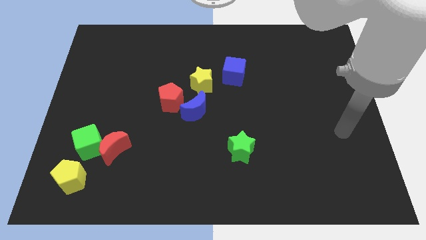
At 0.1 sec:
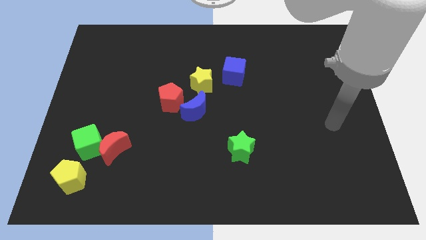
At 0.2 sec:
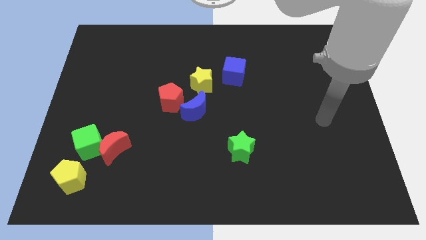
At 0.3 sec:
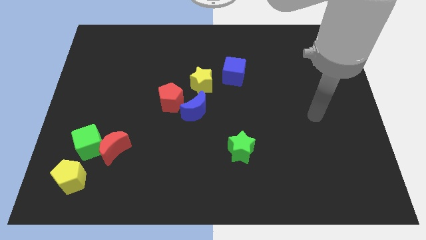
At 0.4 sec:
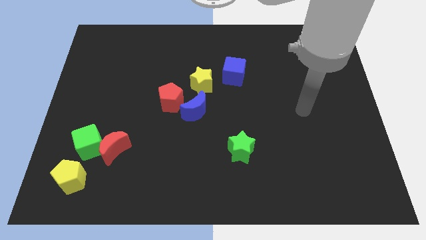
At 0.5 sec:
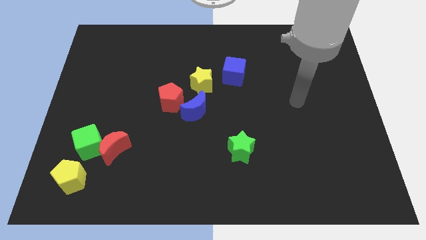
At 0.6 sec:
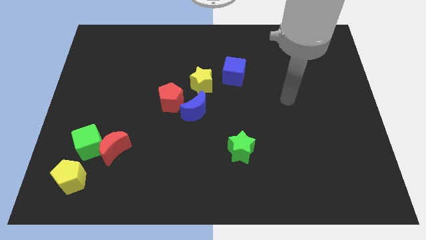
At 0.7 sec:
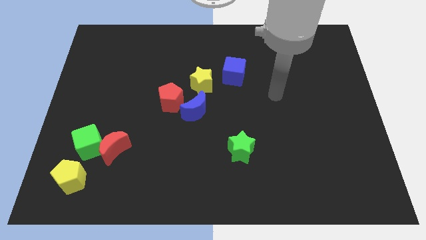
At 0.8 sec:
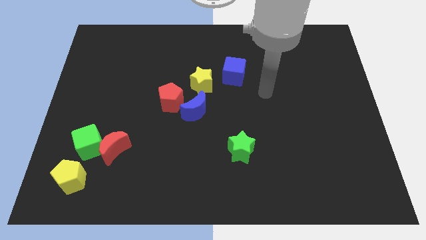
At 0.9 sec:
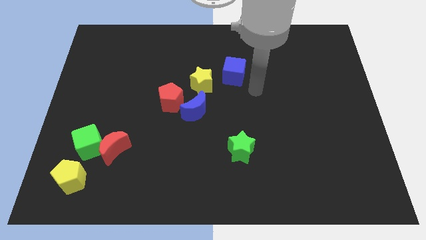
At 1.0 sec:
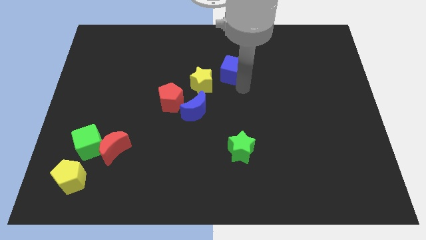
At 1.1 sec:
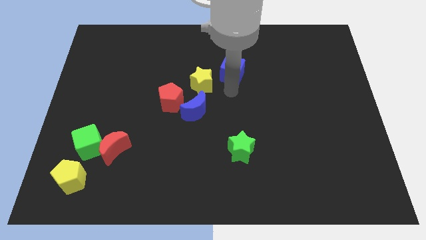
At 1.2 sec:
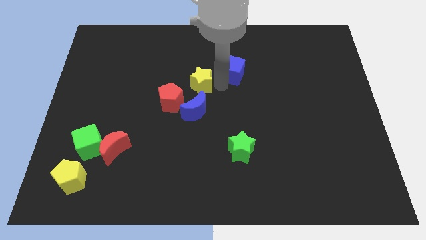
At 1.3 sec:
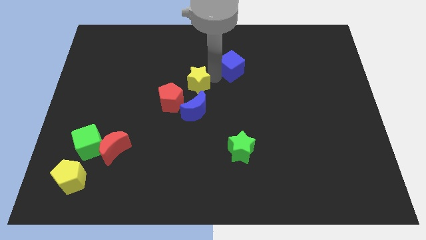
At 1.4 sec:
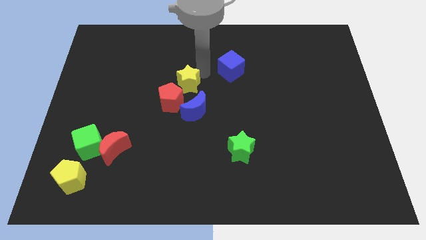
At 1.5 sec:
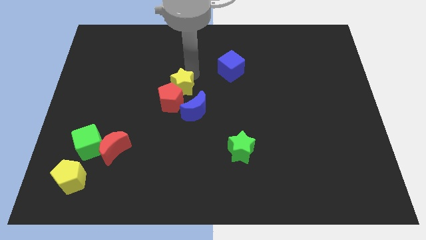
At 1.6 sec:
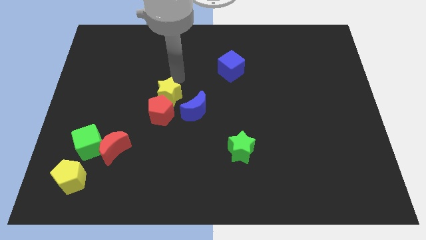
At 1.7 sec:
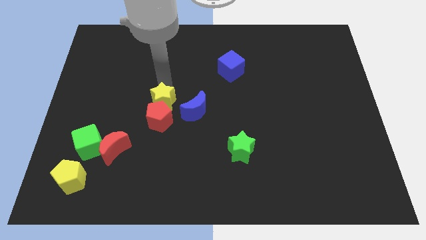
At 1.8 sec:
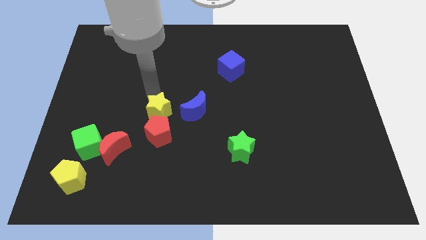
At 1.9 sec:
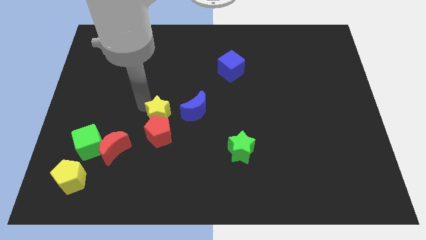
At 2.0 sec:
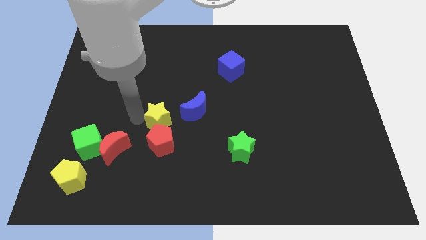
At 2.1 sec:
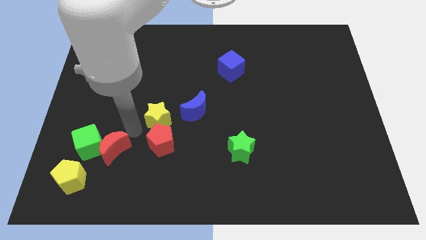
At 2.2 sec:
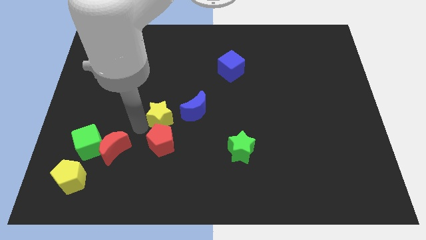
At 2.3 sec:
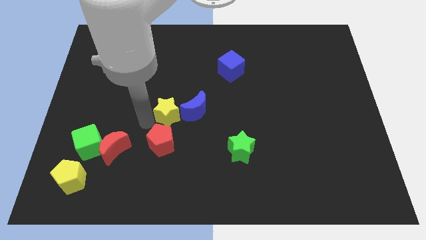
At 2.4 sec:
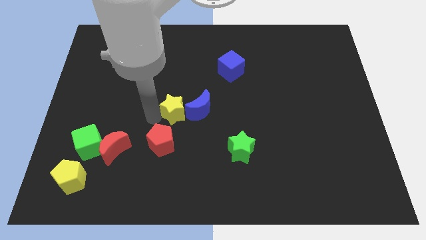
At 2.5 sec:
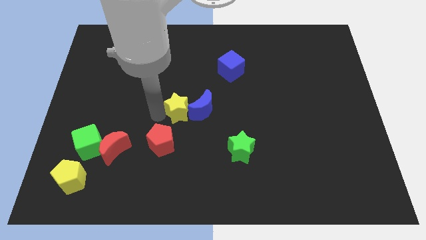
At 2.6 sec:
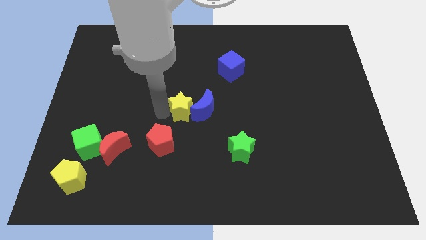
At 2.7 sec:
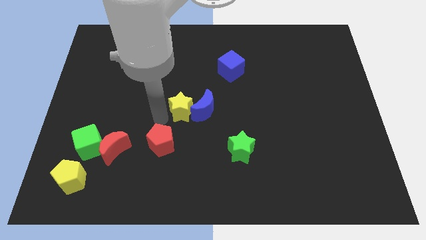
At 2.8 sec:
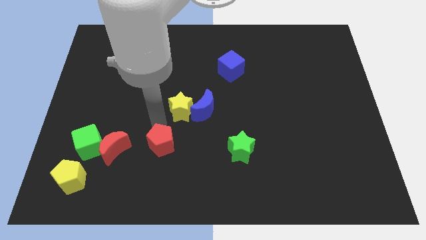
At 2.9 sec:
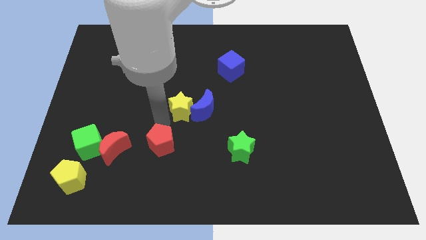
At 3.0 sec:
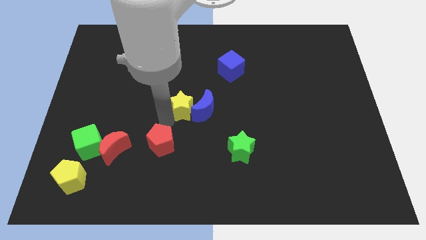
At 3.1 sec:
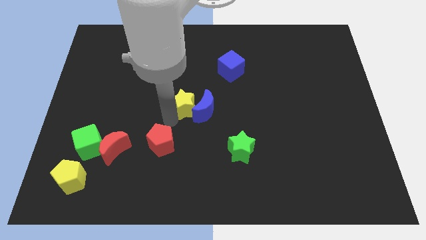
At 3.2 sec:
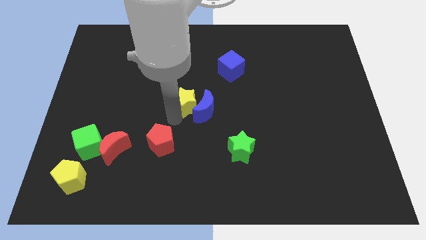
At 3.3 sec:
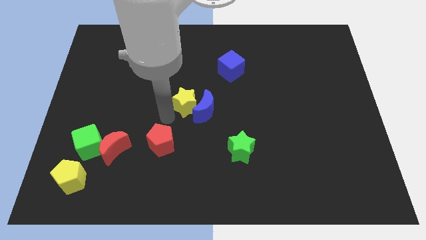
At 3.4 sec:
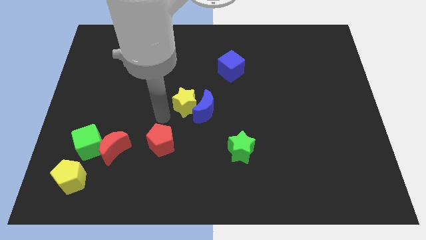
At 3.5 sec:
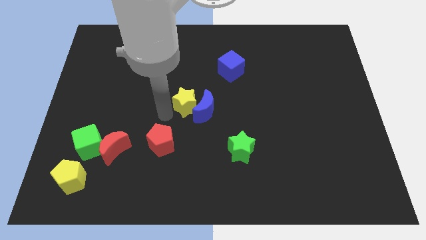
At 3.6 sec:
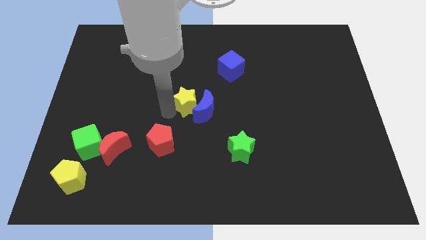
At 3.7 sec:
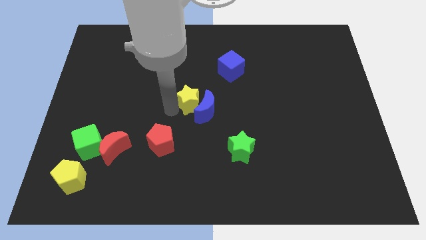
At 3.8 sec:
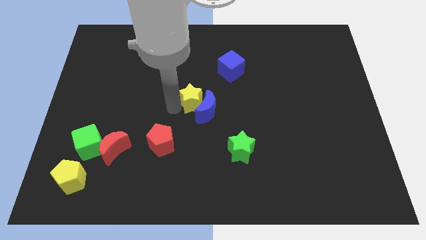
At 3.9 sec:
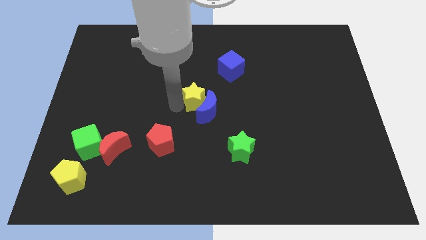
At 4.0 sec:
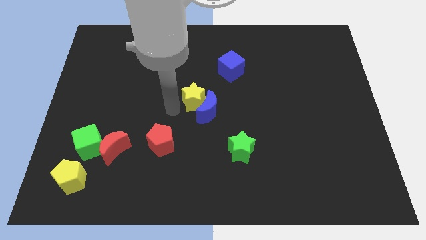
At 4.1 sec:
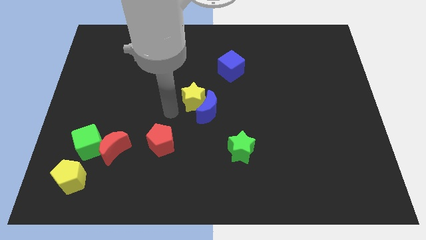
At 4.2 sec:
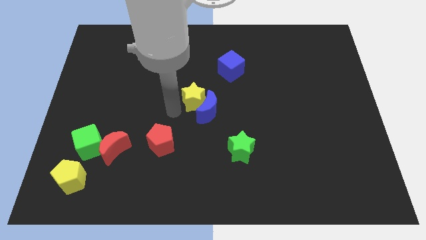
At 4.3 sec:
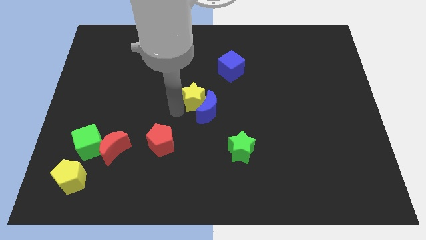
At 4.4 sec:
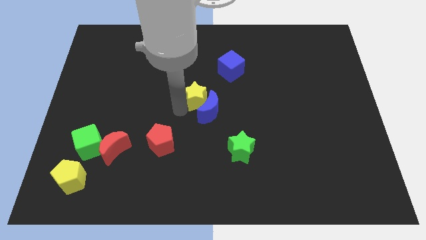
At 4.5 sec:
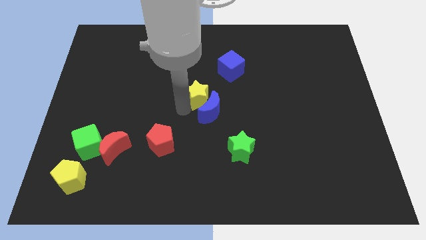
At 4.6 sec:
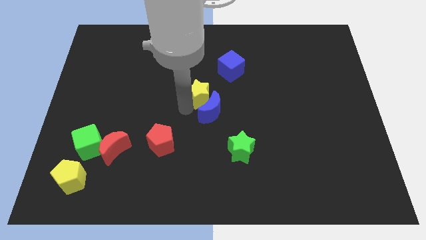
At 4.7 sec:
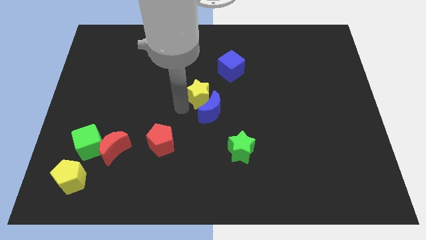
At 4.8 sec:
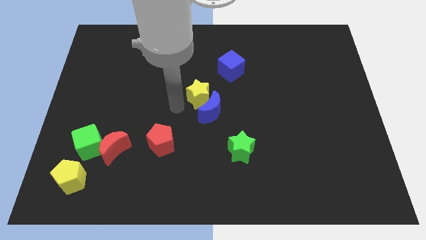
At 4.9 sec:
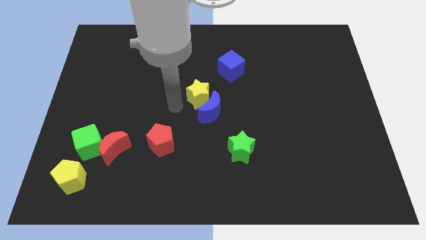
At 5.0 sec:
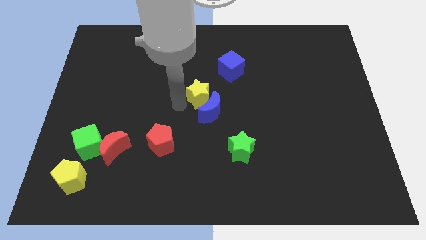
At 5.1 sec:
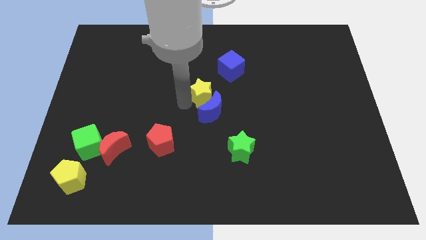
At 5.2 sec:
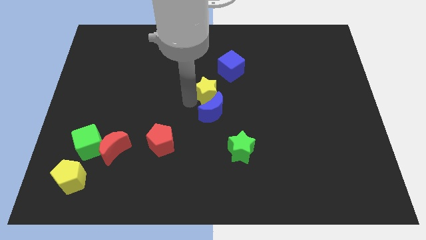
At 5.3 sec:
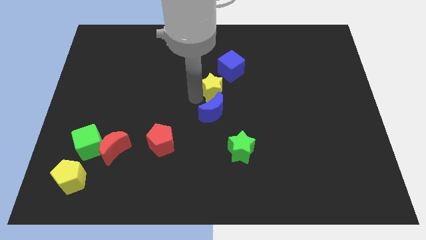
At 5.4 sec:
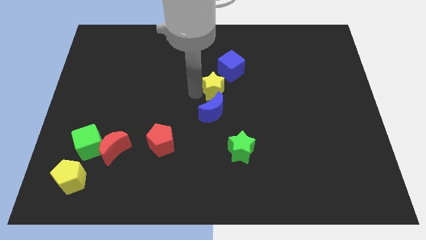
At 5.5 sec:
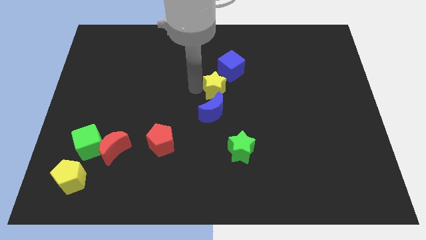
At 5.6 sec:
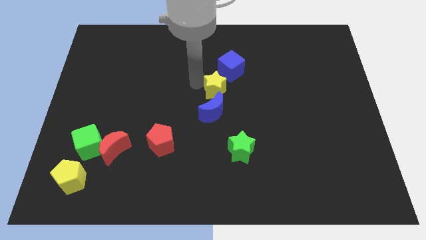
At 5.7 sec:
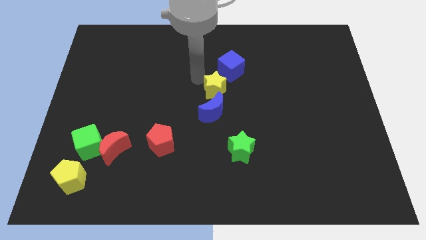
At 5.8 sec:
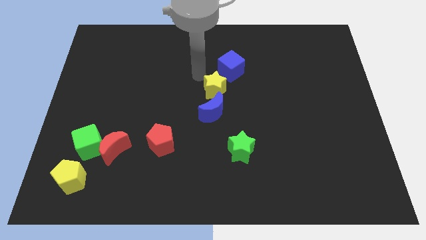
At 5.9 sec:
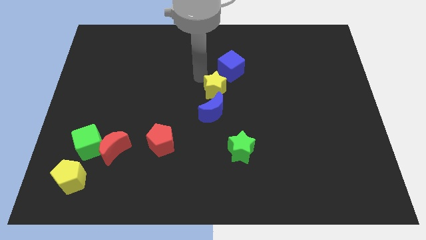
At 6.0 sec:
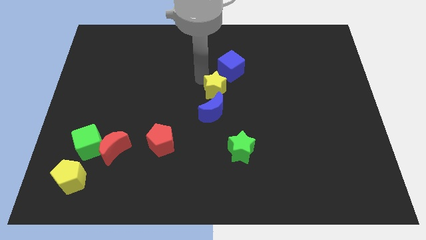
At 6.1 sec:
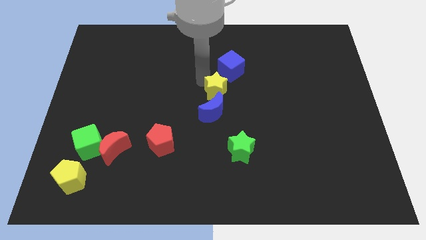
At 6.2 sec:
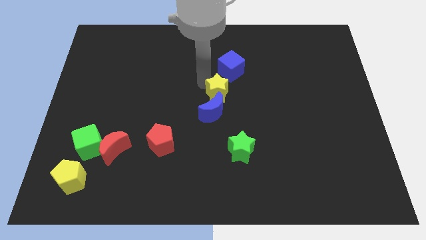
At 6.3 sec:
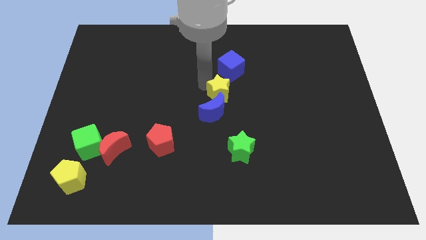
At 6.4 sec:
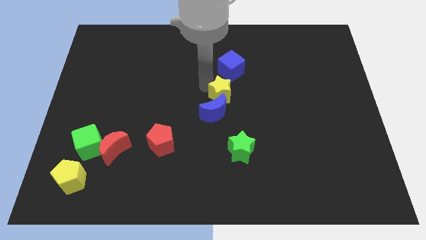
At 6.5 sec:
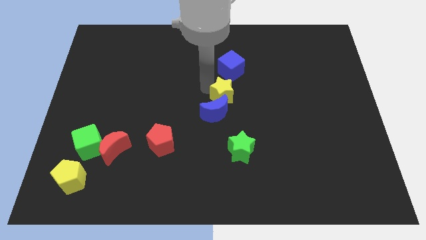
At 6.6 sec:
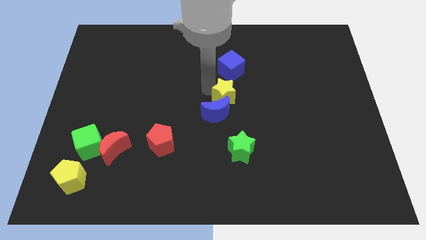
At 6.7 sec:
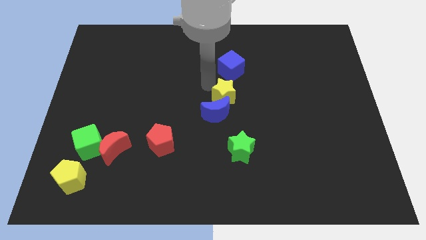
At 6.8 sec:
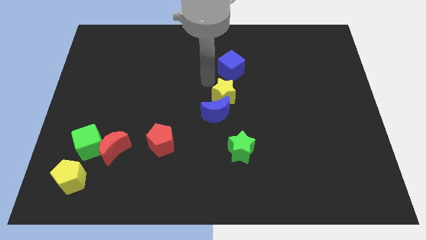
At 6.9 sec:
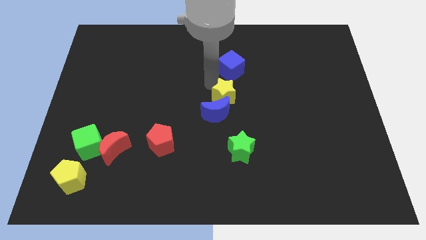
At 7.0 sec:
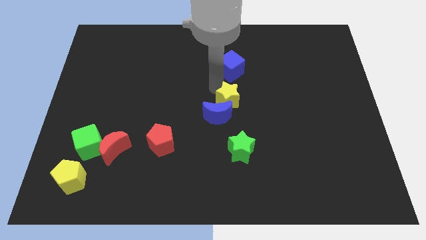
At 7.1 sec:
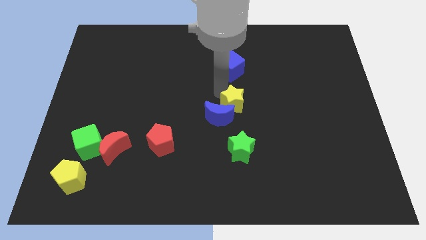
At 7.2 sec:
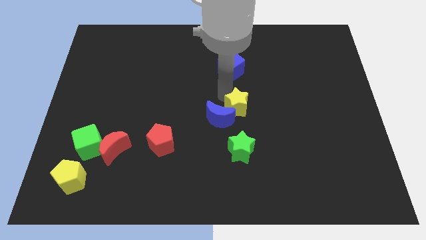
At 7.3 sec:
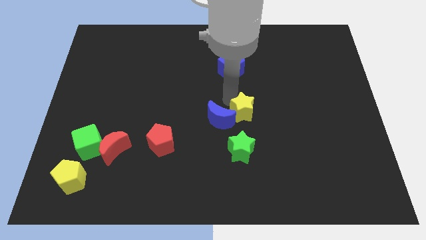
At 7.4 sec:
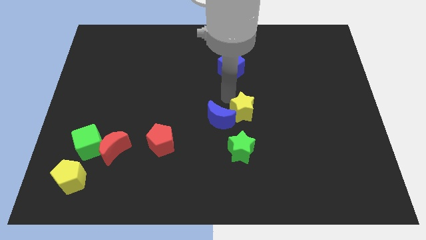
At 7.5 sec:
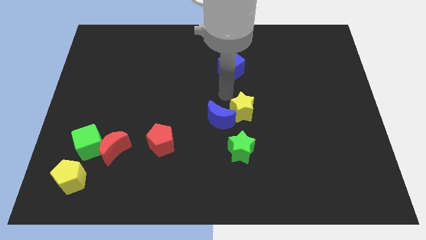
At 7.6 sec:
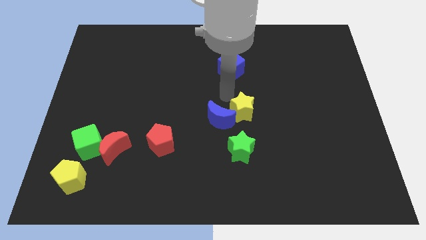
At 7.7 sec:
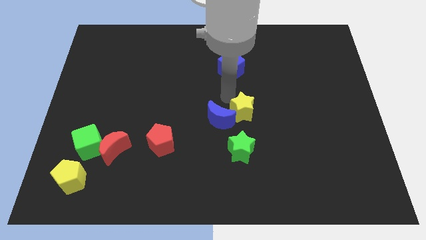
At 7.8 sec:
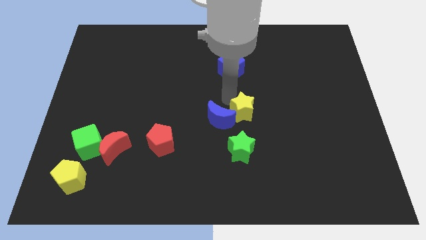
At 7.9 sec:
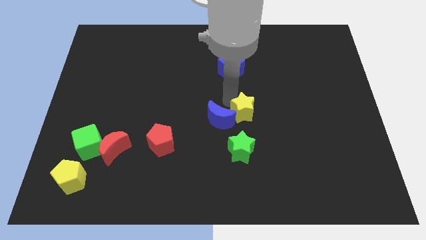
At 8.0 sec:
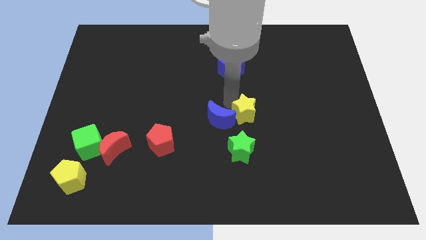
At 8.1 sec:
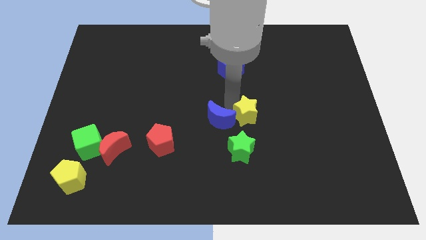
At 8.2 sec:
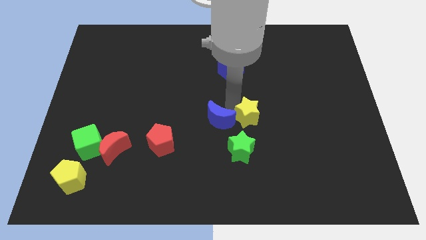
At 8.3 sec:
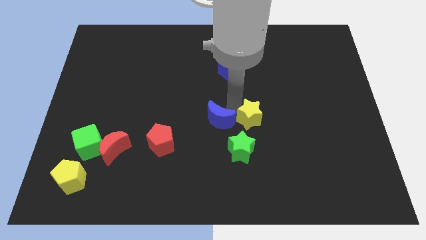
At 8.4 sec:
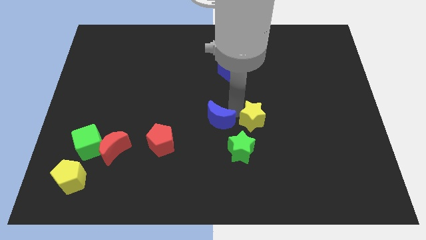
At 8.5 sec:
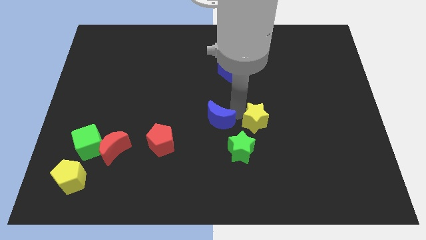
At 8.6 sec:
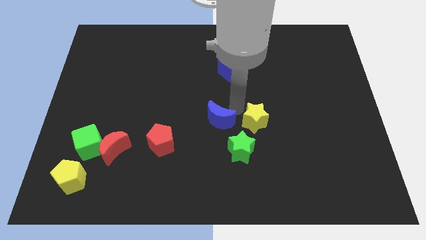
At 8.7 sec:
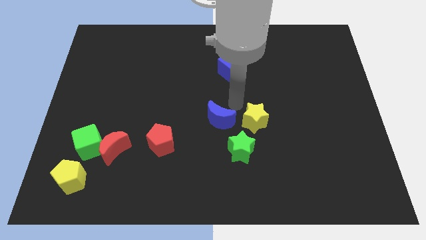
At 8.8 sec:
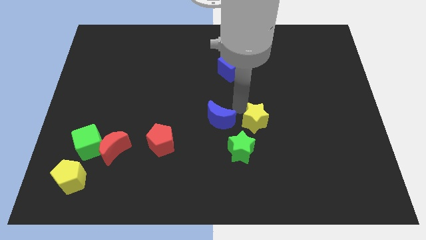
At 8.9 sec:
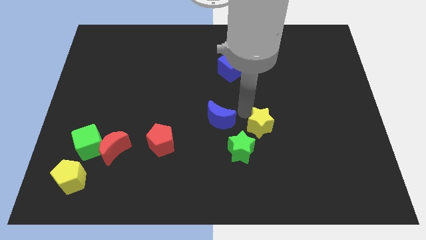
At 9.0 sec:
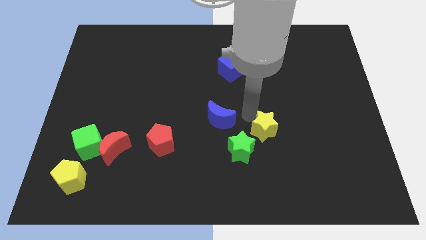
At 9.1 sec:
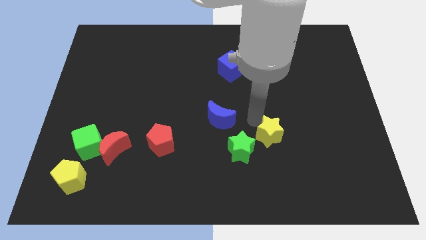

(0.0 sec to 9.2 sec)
push the yellow star just right of the green star
